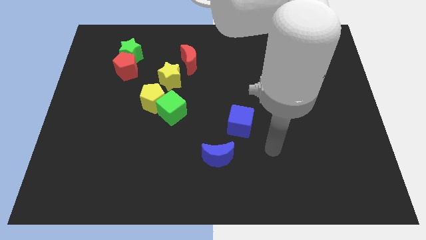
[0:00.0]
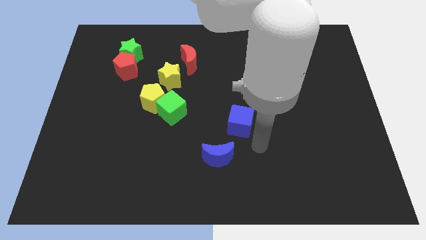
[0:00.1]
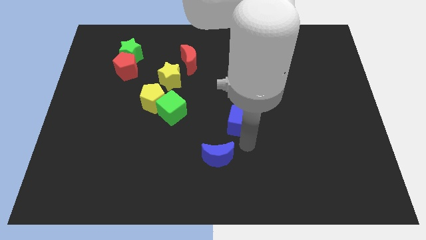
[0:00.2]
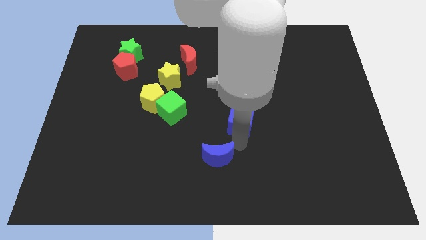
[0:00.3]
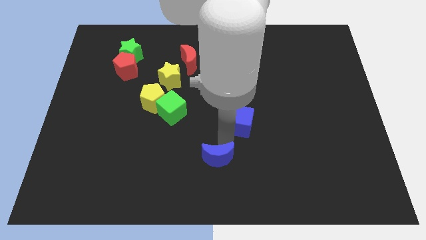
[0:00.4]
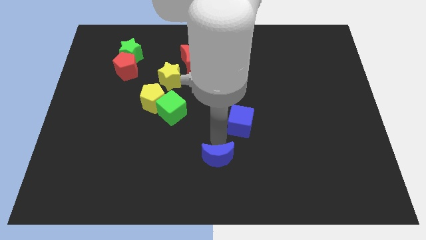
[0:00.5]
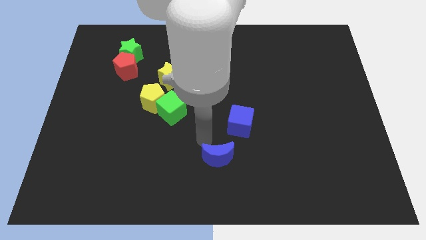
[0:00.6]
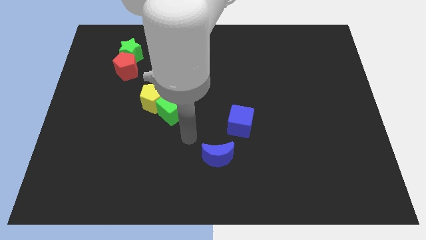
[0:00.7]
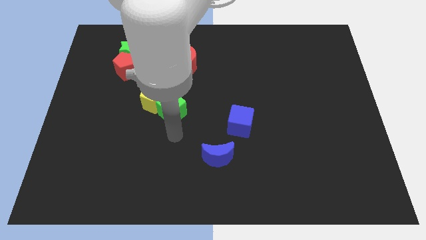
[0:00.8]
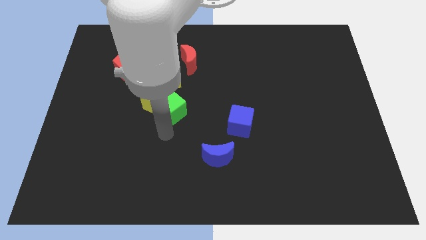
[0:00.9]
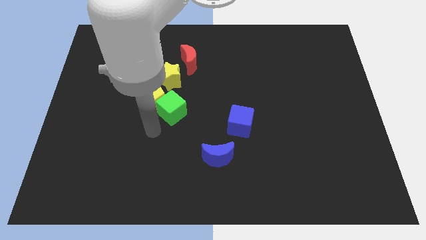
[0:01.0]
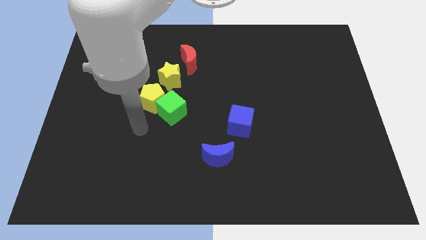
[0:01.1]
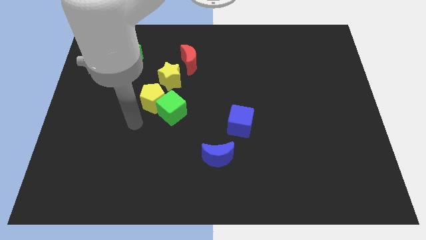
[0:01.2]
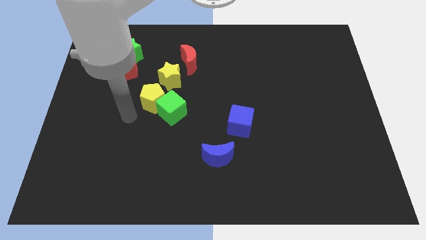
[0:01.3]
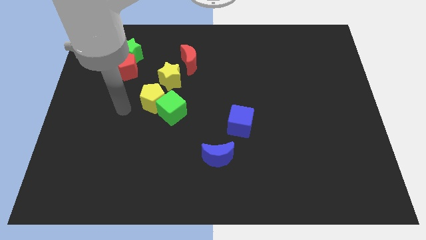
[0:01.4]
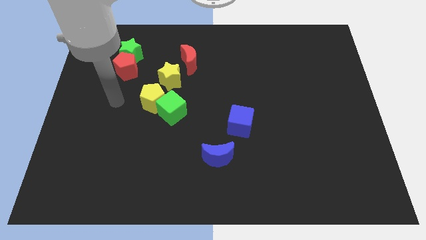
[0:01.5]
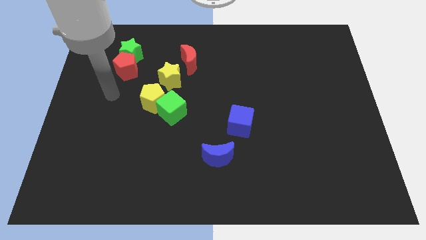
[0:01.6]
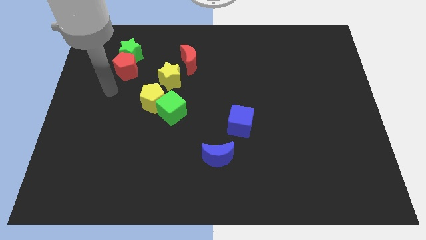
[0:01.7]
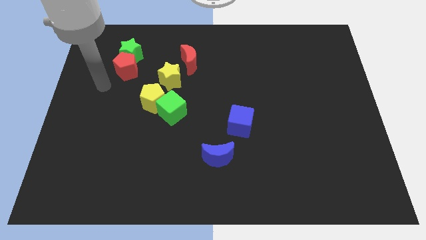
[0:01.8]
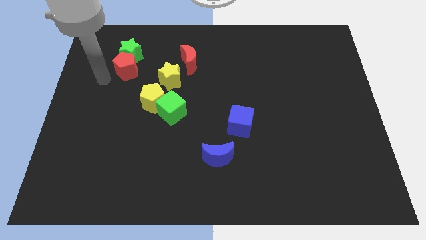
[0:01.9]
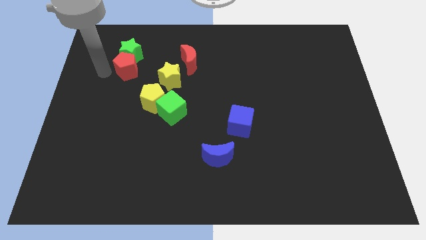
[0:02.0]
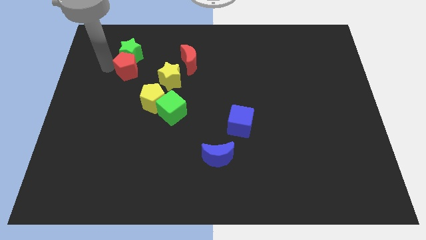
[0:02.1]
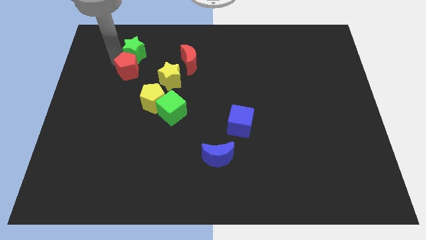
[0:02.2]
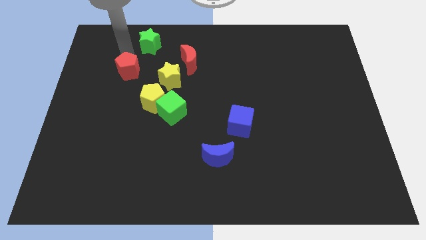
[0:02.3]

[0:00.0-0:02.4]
separate the red pentagon from the green star

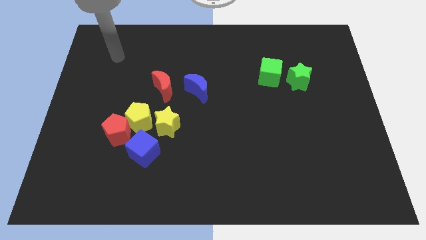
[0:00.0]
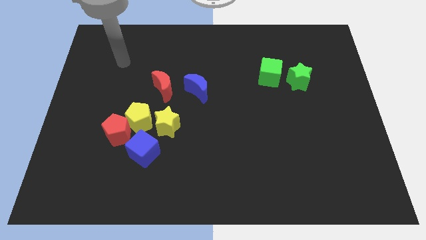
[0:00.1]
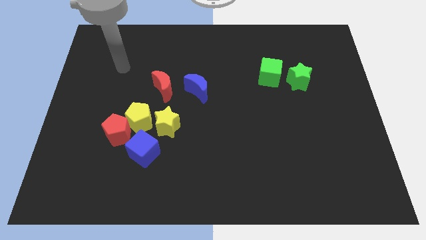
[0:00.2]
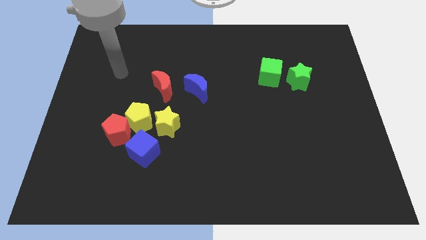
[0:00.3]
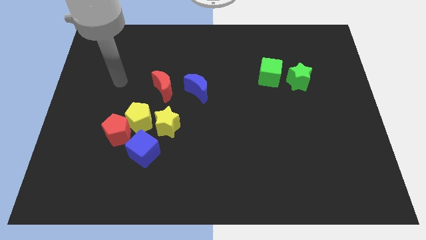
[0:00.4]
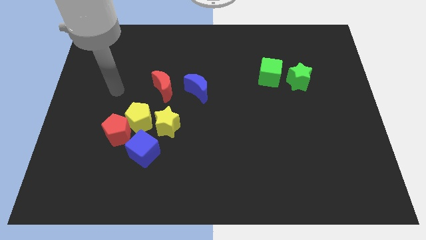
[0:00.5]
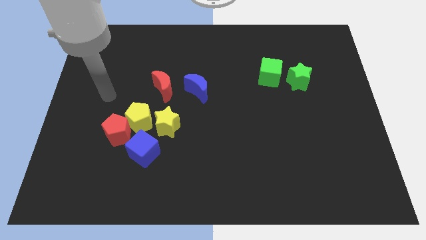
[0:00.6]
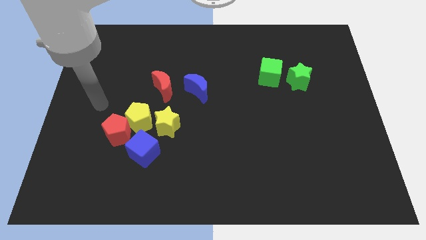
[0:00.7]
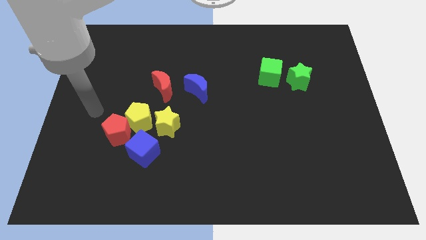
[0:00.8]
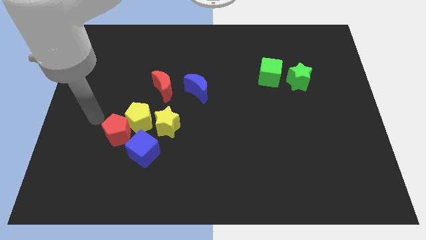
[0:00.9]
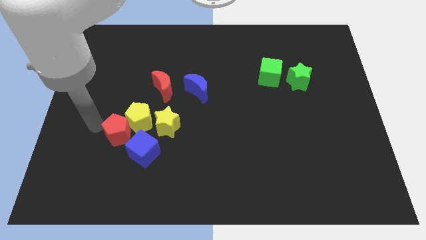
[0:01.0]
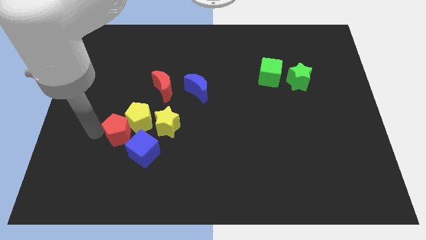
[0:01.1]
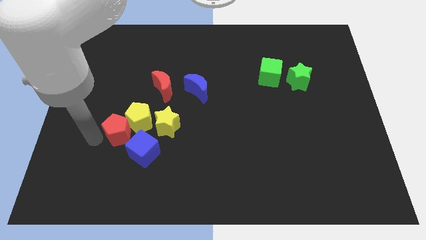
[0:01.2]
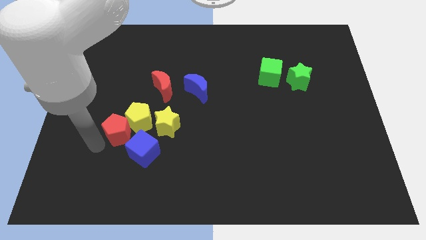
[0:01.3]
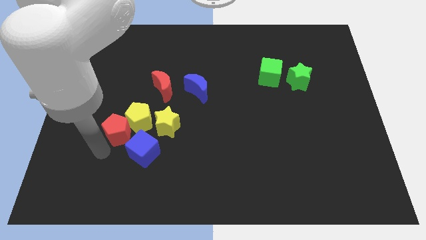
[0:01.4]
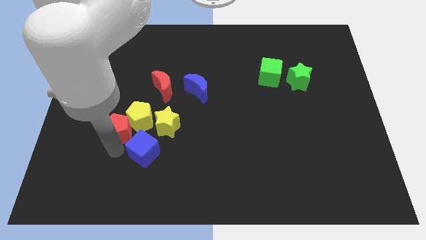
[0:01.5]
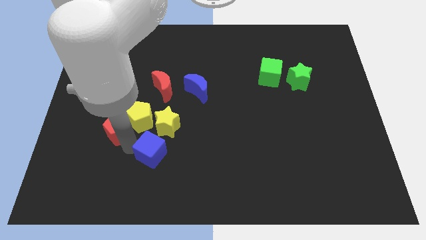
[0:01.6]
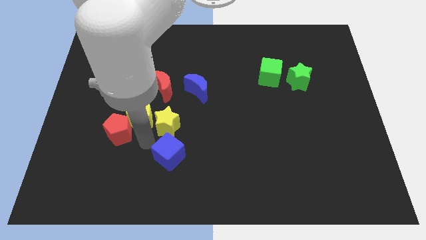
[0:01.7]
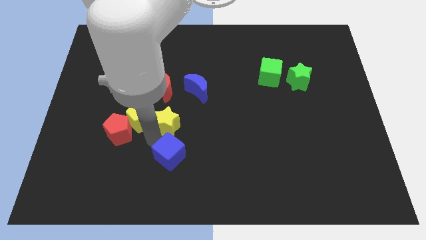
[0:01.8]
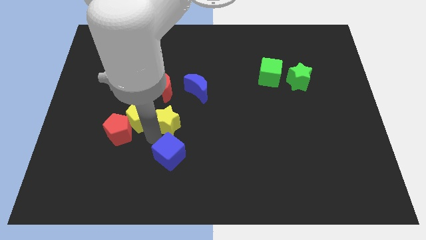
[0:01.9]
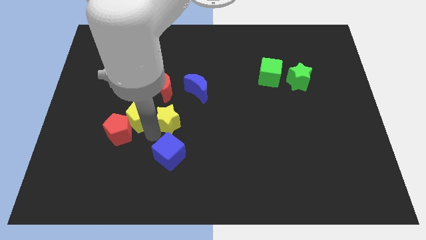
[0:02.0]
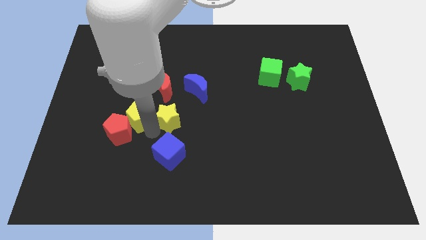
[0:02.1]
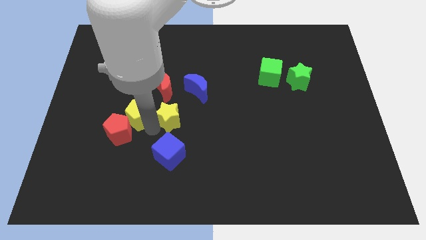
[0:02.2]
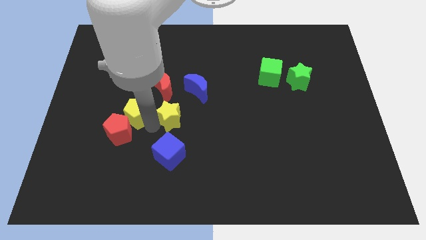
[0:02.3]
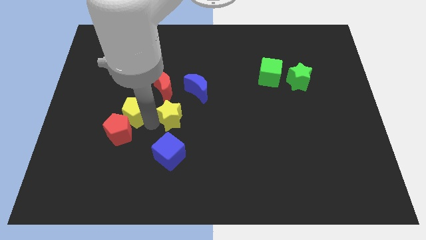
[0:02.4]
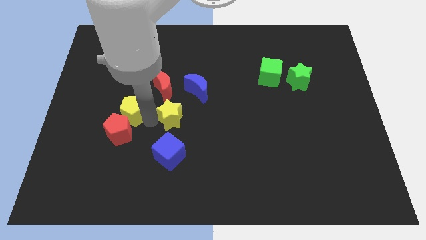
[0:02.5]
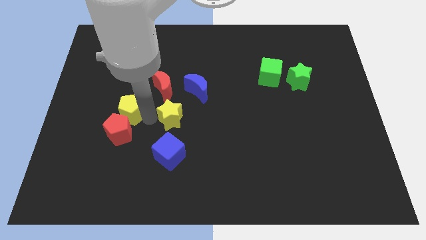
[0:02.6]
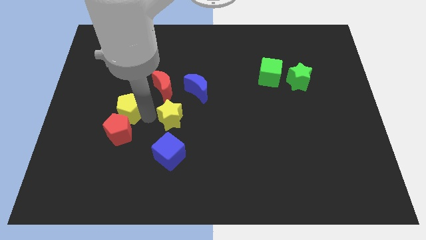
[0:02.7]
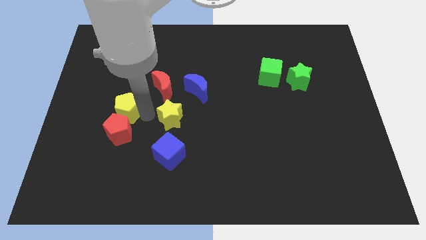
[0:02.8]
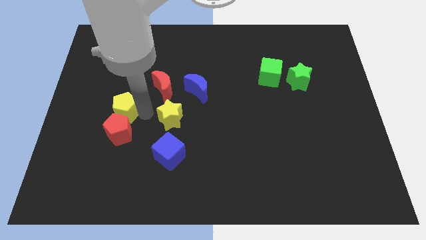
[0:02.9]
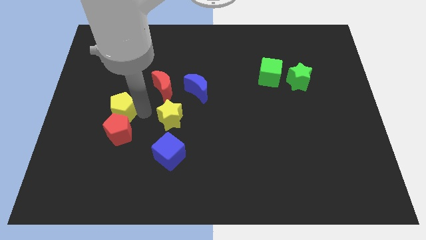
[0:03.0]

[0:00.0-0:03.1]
separate the yellow pentagon from the red pentagon, yellow star, and blue cube

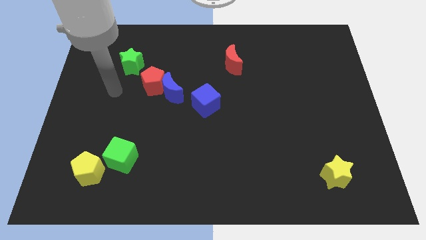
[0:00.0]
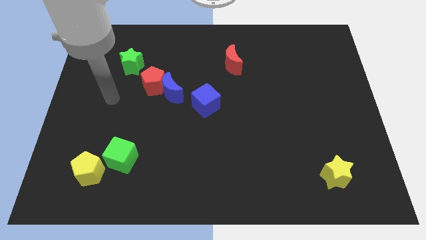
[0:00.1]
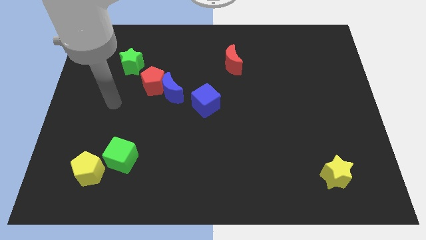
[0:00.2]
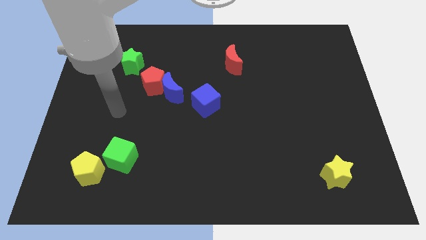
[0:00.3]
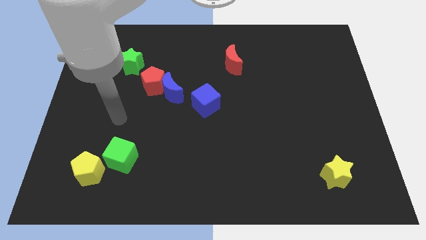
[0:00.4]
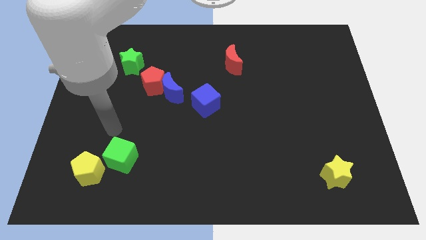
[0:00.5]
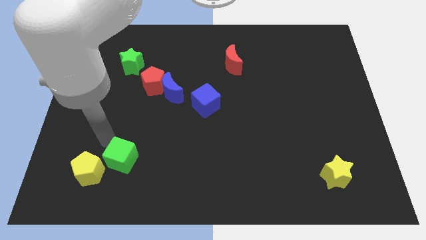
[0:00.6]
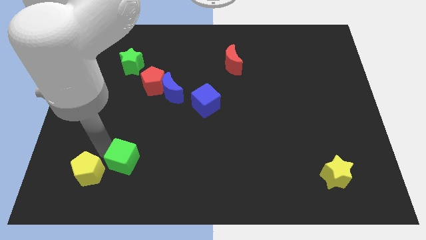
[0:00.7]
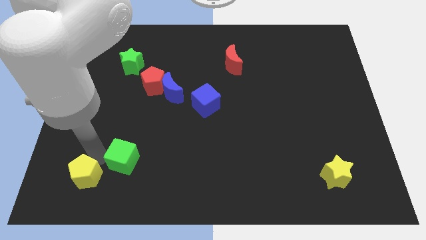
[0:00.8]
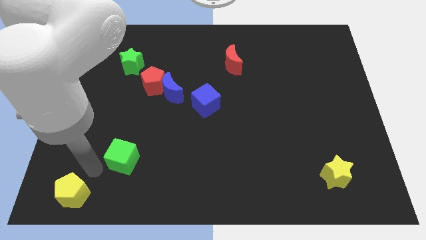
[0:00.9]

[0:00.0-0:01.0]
separate the green cube from the yellow pentagon

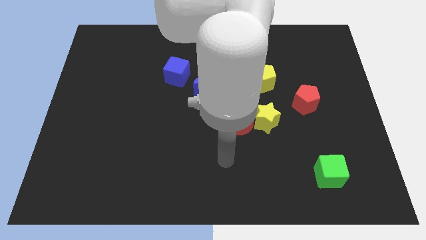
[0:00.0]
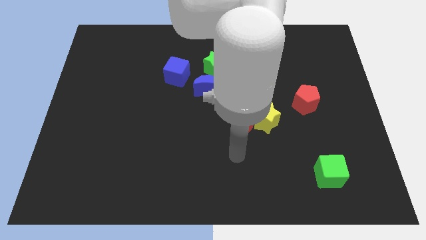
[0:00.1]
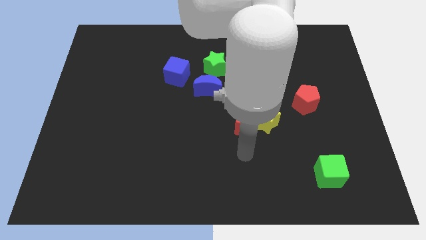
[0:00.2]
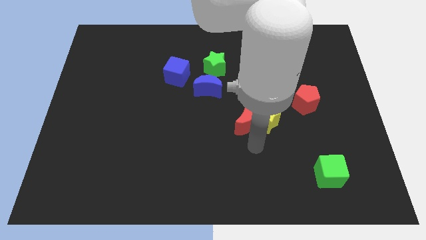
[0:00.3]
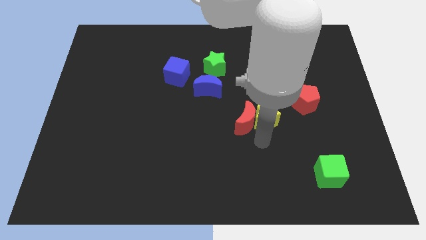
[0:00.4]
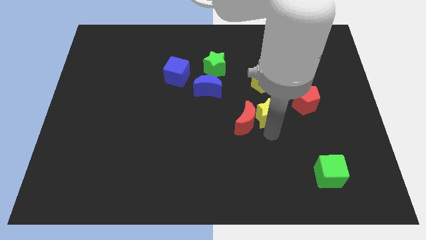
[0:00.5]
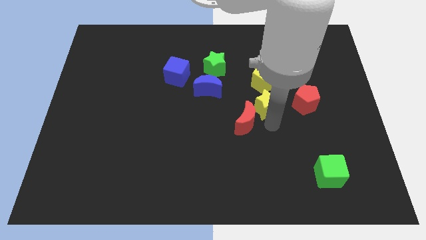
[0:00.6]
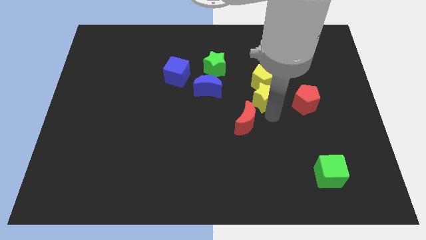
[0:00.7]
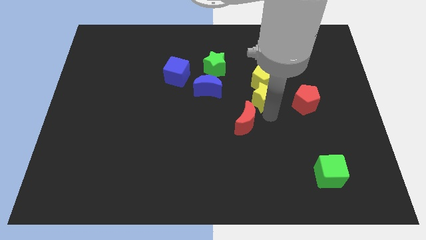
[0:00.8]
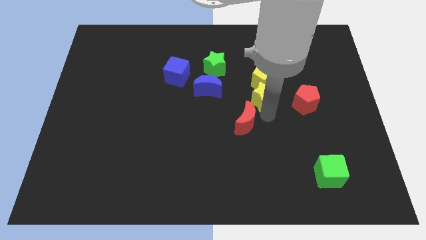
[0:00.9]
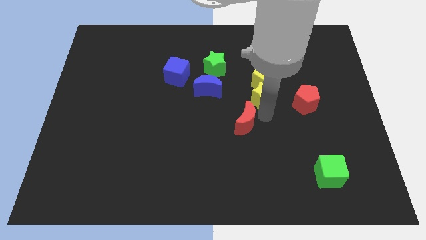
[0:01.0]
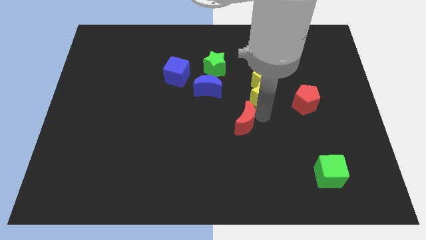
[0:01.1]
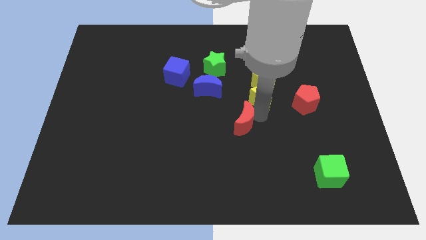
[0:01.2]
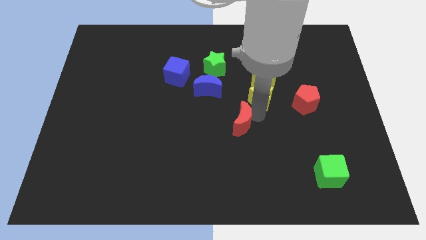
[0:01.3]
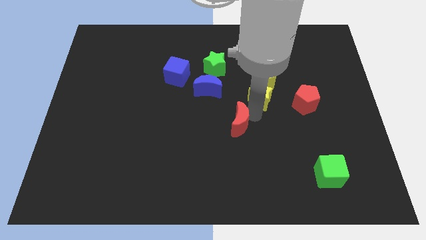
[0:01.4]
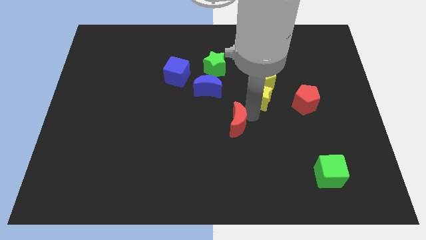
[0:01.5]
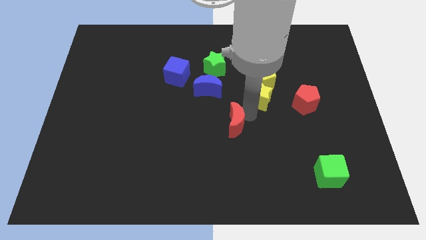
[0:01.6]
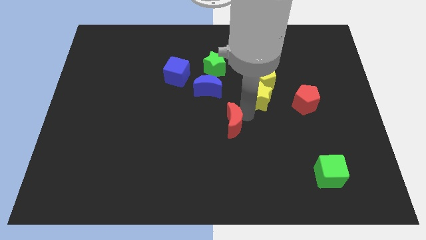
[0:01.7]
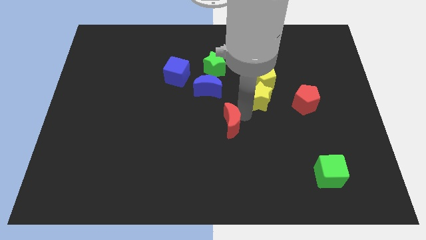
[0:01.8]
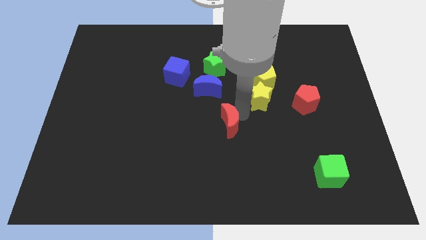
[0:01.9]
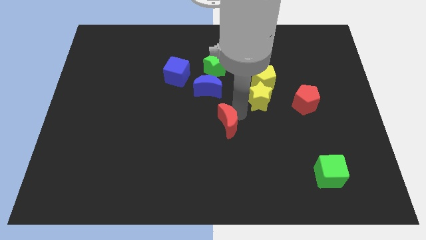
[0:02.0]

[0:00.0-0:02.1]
separate the red moon from the yellow star

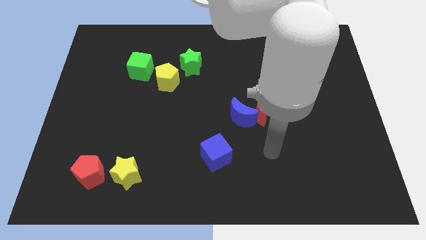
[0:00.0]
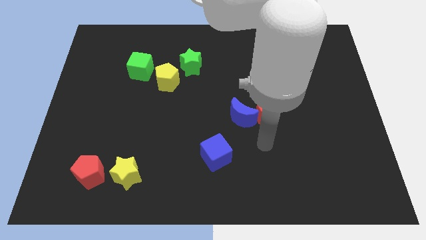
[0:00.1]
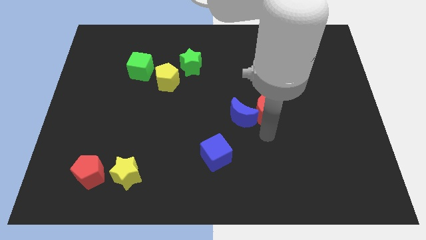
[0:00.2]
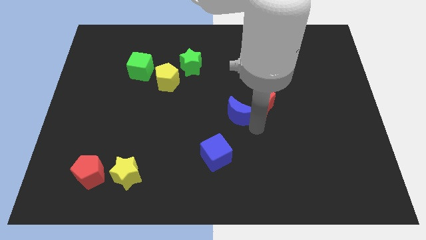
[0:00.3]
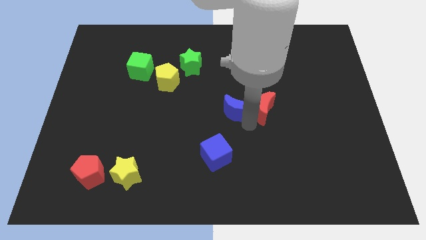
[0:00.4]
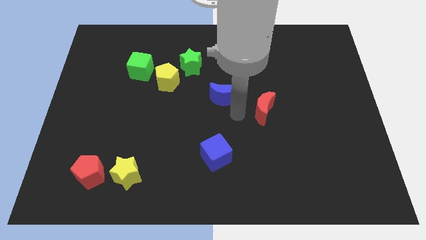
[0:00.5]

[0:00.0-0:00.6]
move the red moon away from the blue moon
